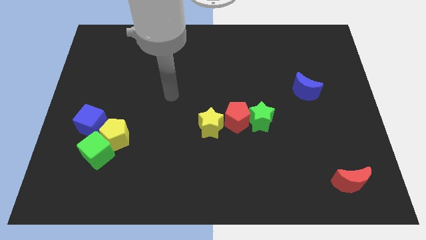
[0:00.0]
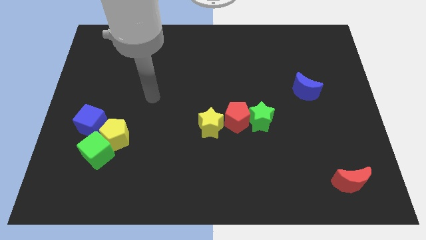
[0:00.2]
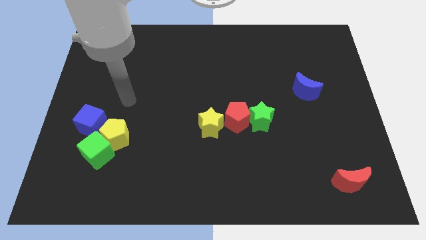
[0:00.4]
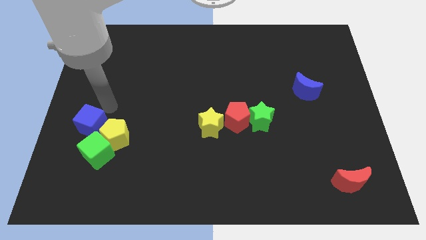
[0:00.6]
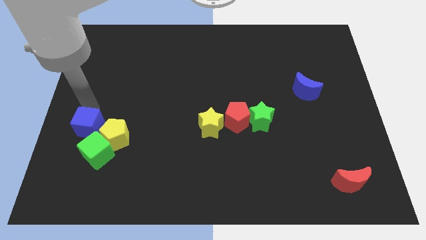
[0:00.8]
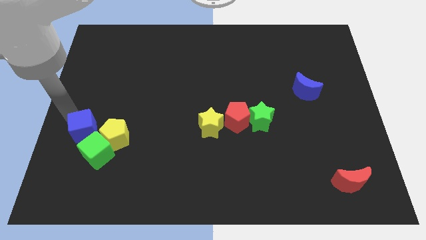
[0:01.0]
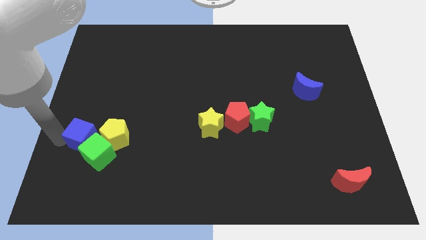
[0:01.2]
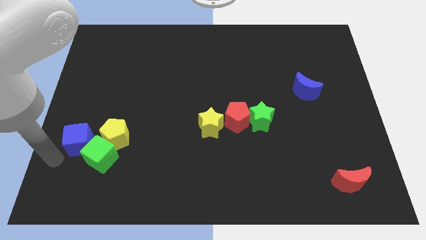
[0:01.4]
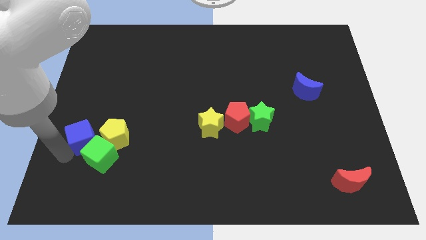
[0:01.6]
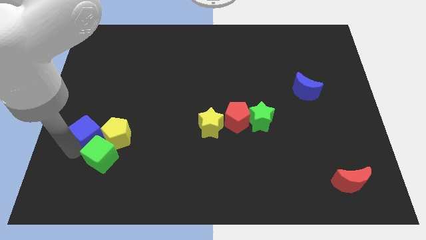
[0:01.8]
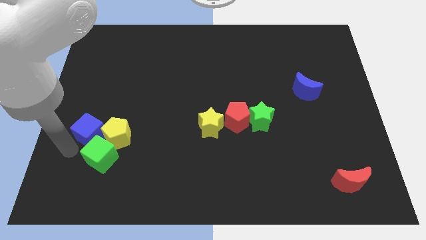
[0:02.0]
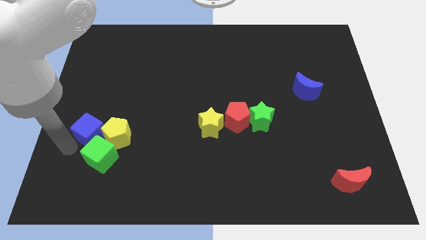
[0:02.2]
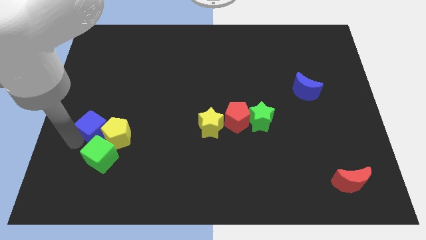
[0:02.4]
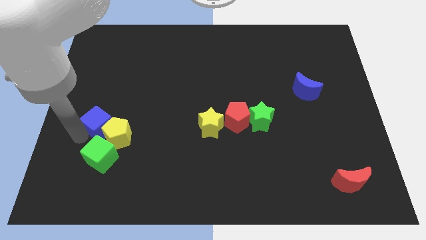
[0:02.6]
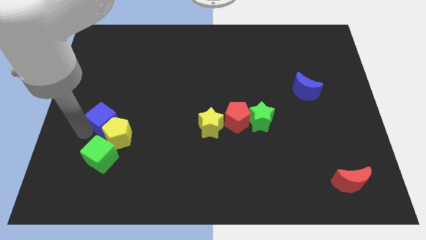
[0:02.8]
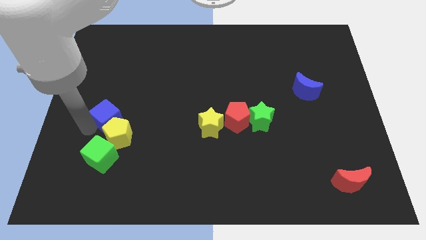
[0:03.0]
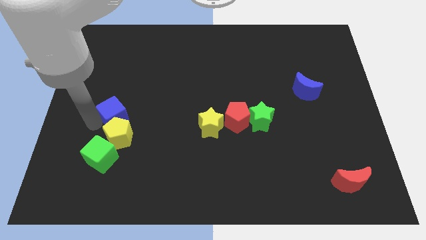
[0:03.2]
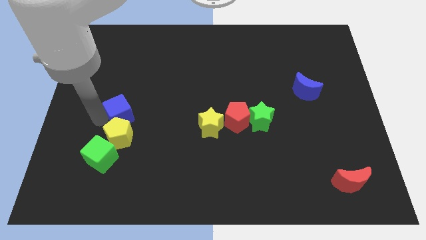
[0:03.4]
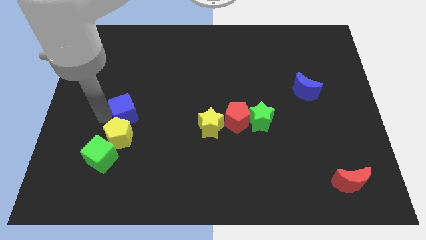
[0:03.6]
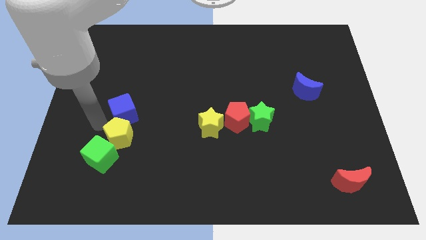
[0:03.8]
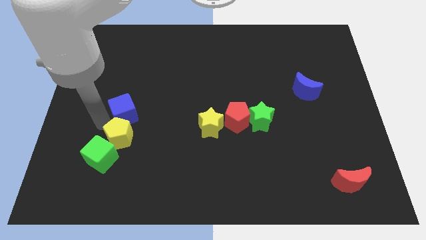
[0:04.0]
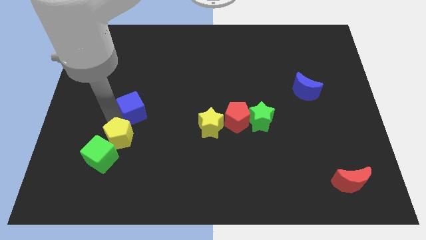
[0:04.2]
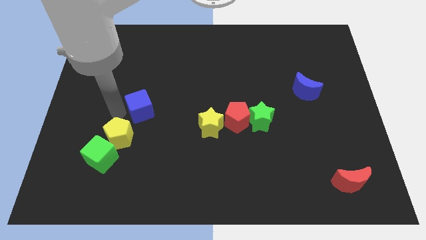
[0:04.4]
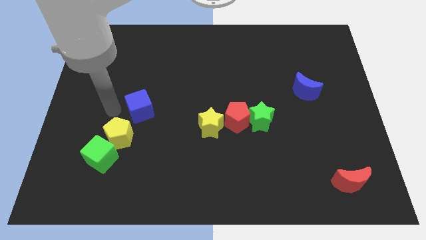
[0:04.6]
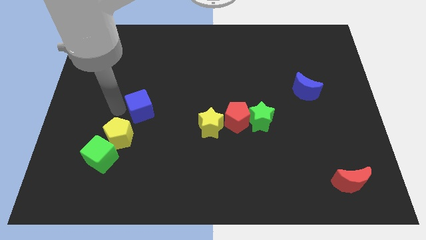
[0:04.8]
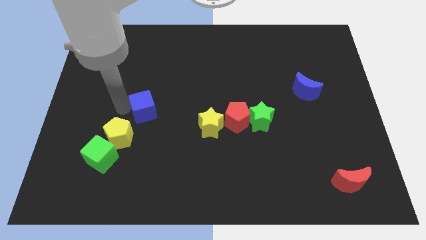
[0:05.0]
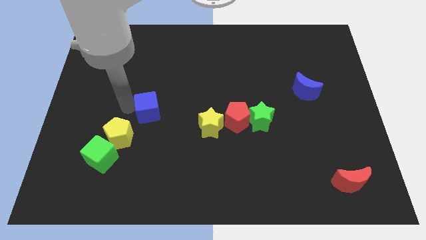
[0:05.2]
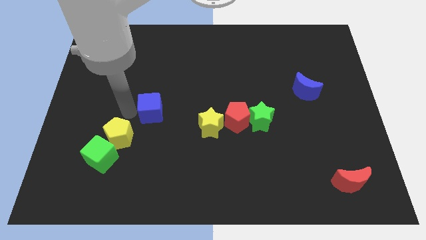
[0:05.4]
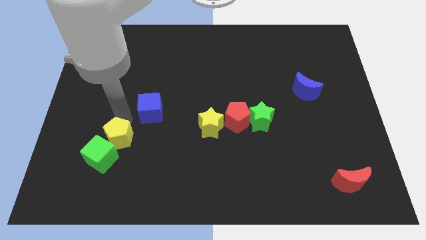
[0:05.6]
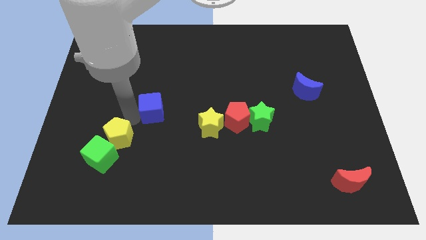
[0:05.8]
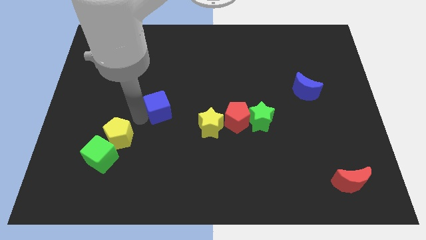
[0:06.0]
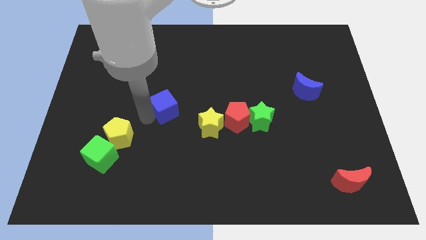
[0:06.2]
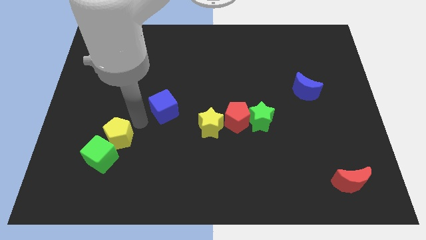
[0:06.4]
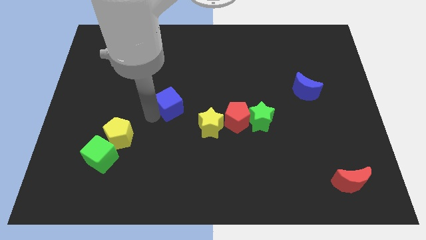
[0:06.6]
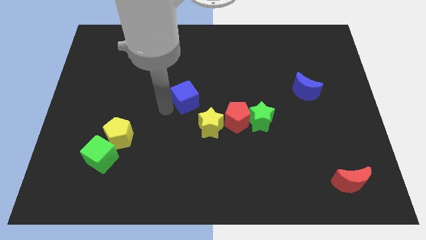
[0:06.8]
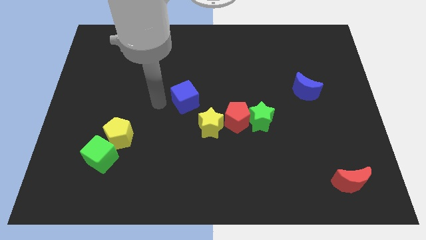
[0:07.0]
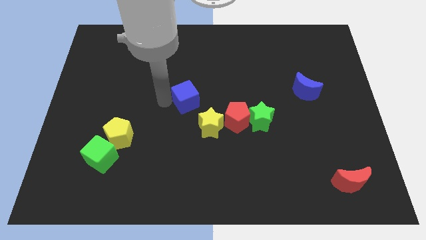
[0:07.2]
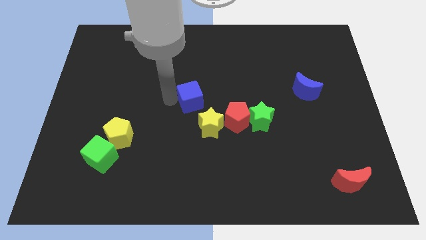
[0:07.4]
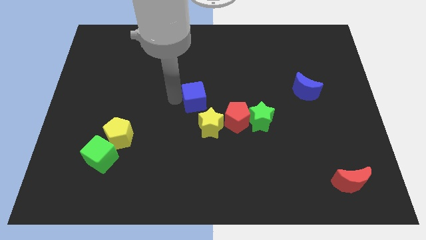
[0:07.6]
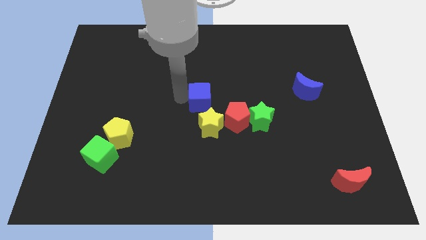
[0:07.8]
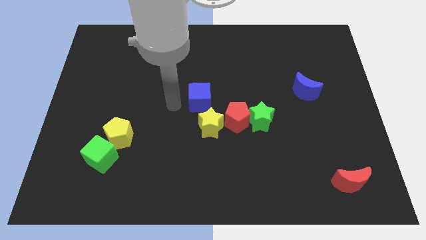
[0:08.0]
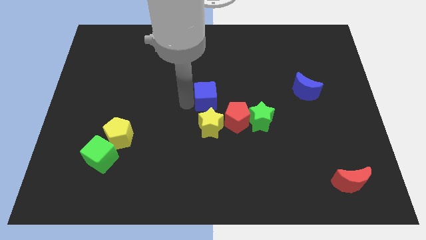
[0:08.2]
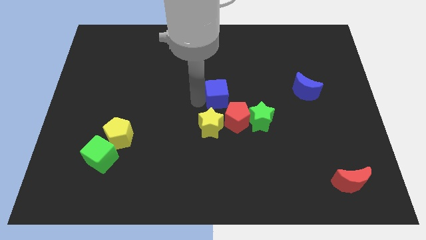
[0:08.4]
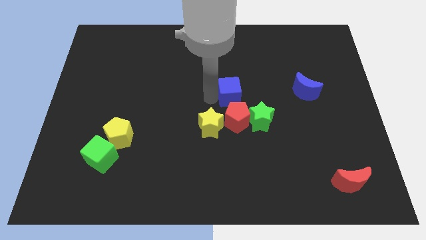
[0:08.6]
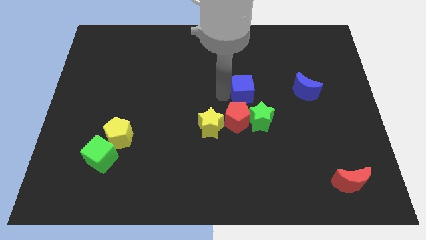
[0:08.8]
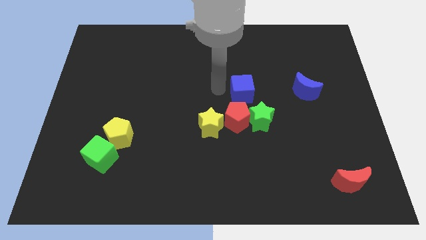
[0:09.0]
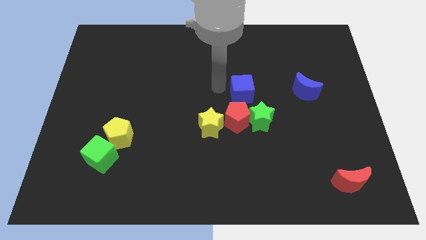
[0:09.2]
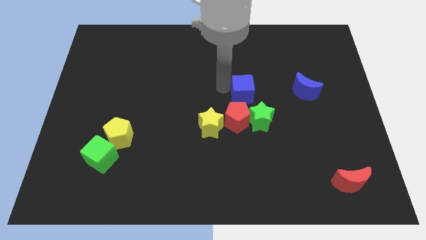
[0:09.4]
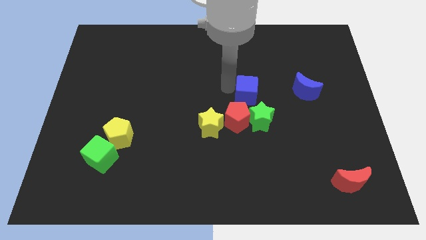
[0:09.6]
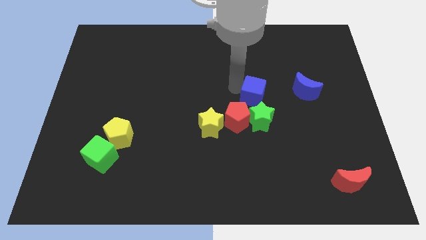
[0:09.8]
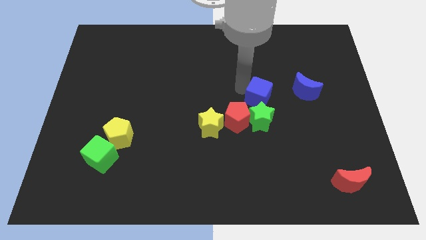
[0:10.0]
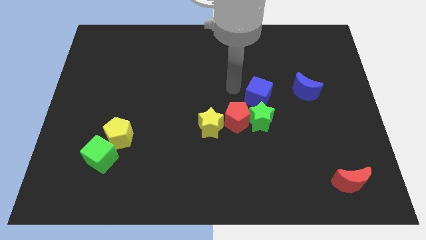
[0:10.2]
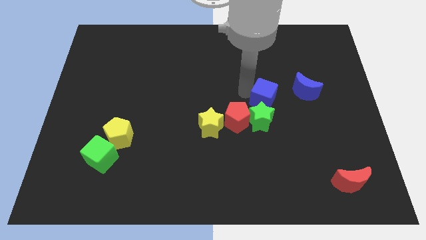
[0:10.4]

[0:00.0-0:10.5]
slide the blue cube diagonally up and to the right of the green star
